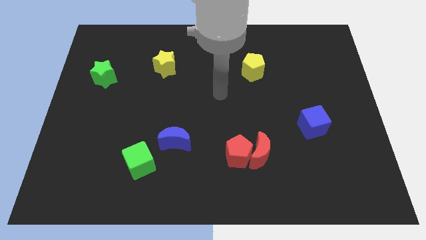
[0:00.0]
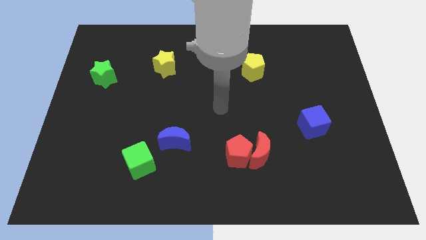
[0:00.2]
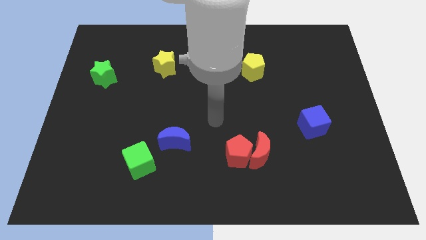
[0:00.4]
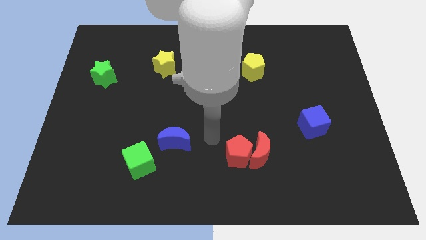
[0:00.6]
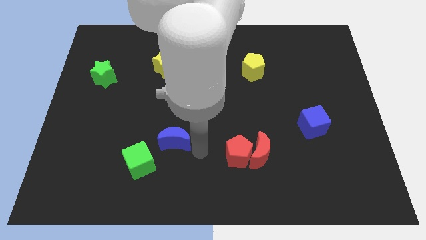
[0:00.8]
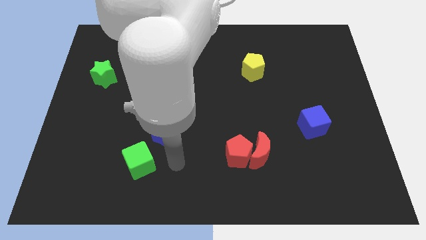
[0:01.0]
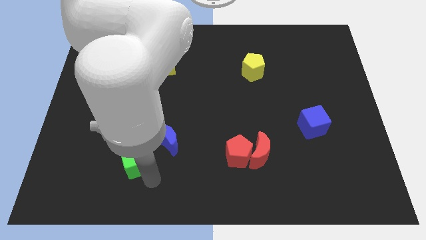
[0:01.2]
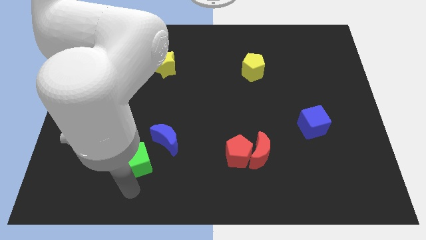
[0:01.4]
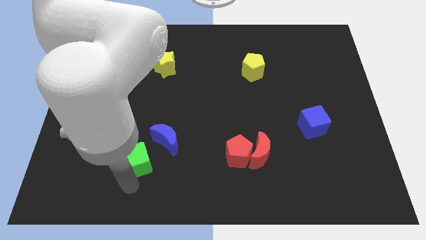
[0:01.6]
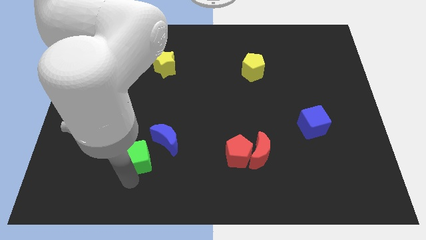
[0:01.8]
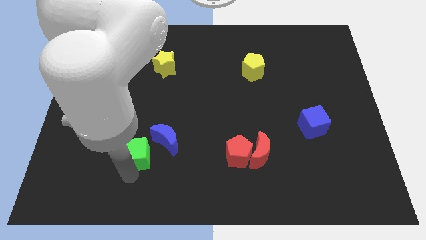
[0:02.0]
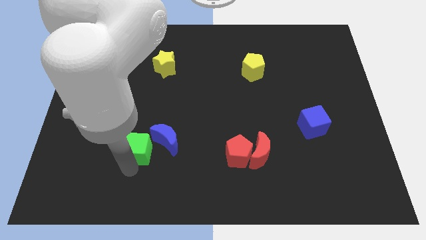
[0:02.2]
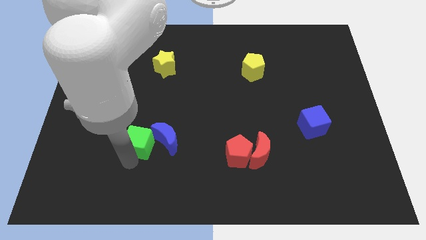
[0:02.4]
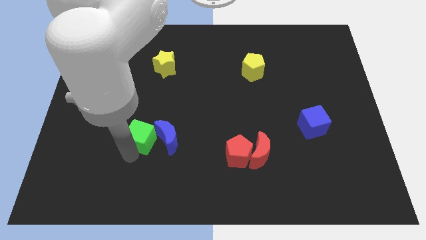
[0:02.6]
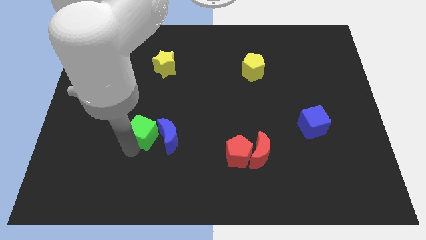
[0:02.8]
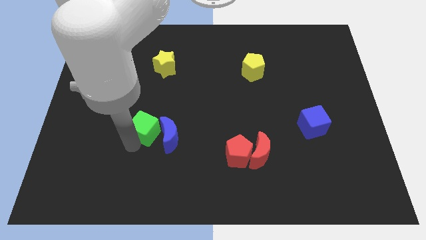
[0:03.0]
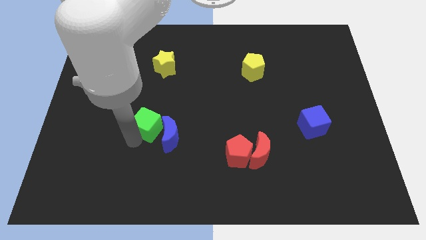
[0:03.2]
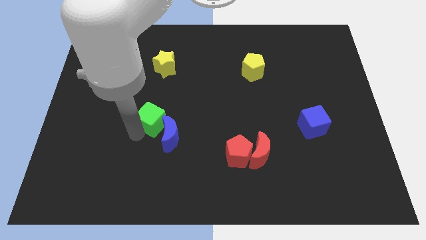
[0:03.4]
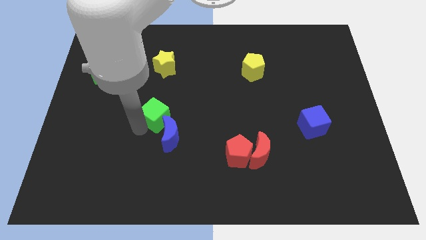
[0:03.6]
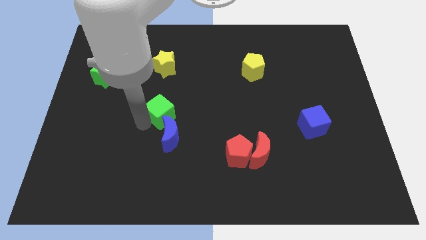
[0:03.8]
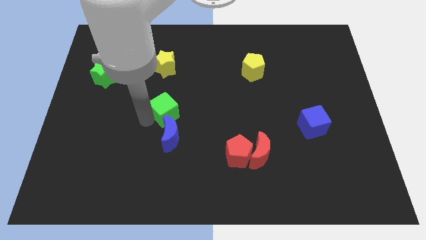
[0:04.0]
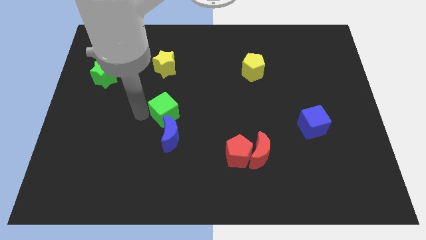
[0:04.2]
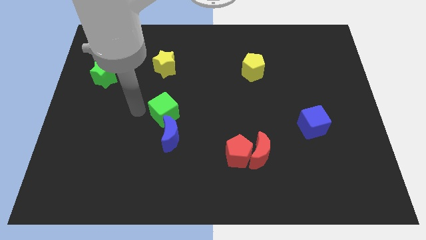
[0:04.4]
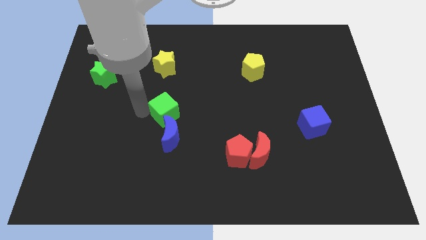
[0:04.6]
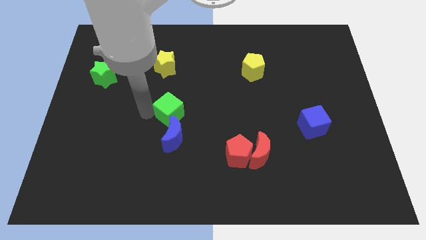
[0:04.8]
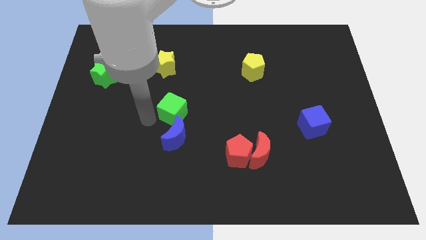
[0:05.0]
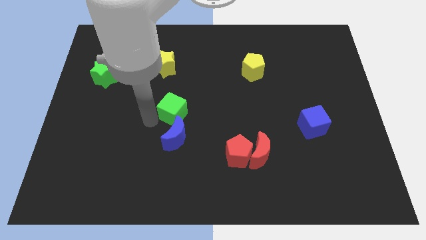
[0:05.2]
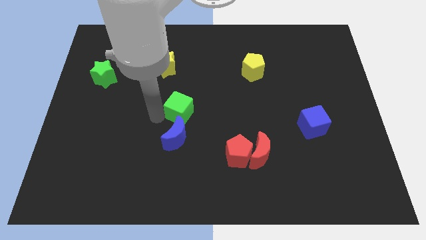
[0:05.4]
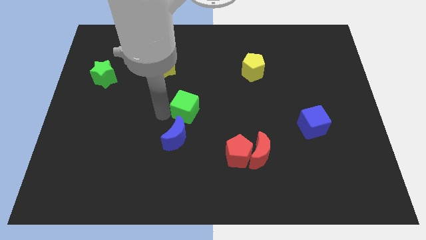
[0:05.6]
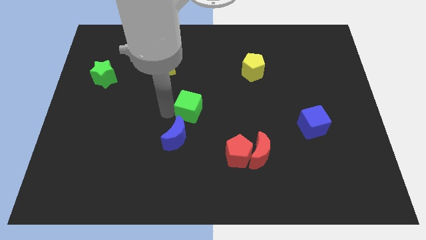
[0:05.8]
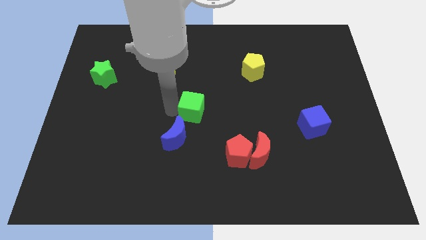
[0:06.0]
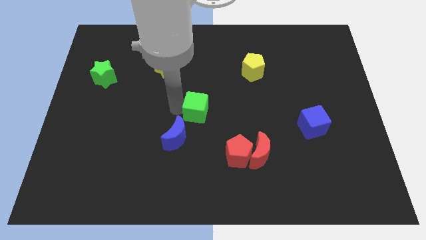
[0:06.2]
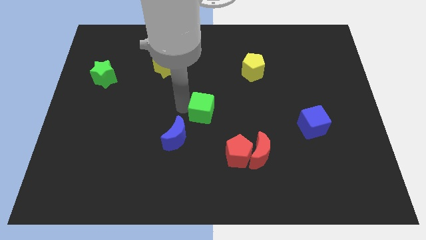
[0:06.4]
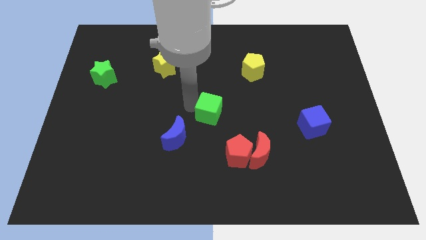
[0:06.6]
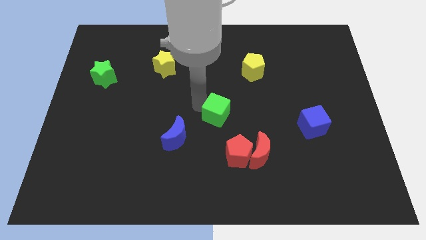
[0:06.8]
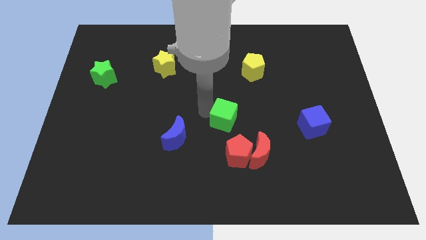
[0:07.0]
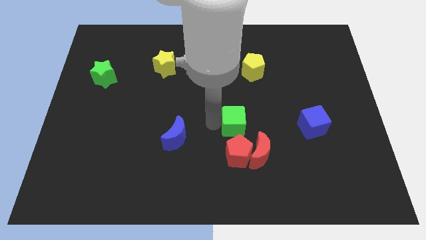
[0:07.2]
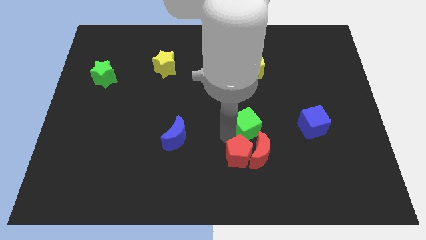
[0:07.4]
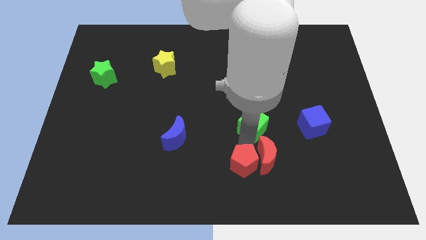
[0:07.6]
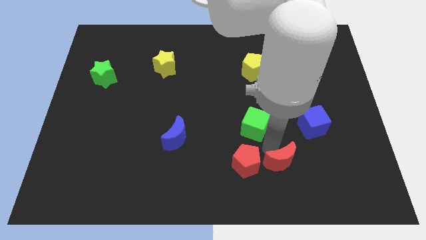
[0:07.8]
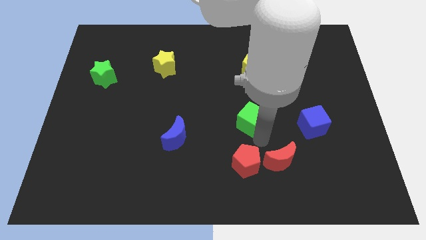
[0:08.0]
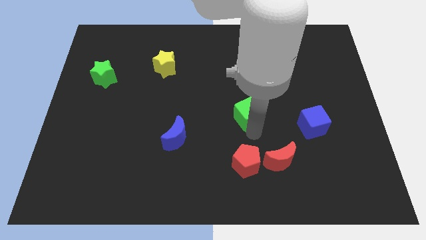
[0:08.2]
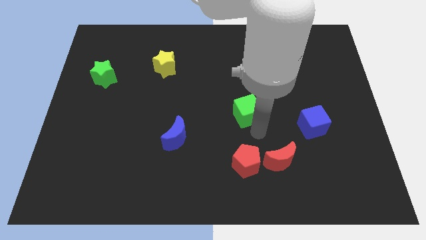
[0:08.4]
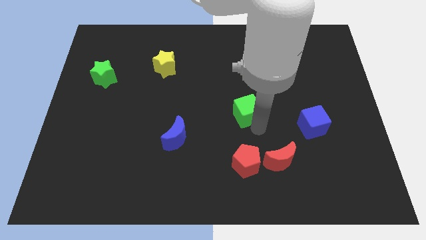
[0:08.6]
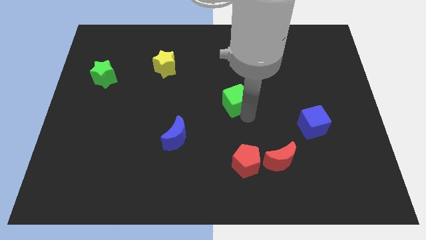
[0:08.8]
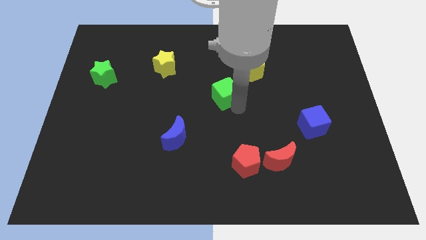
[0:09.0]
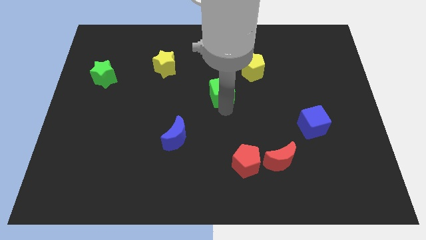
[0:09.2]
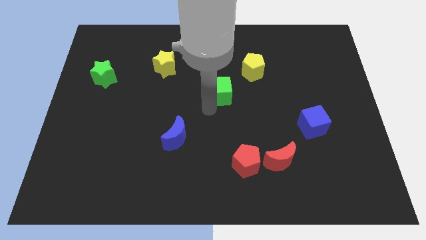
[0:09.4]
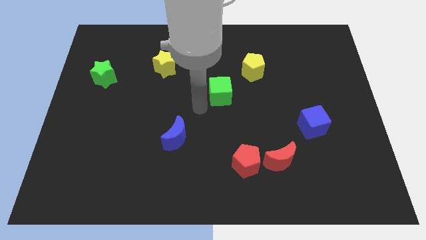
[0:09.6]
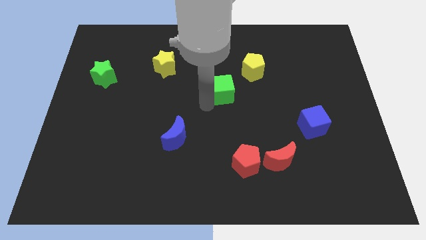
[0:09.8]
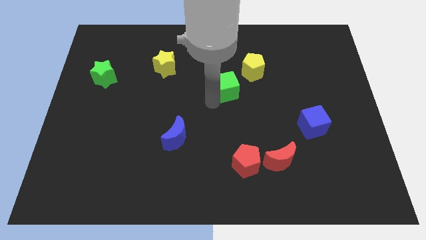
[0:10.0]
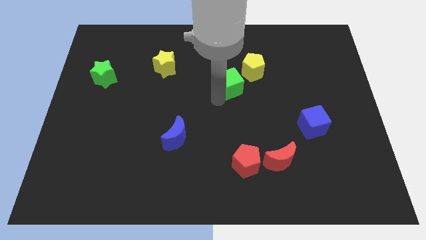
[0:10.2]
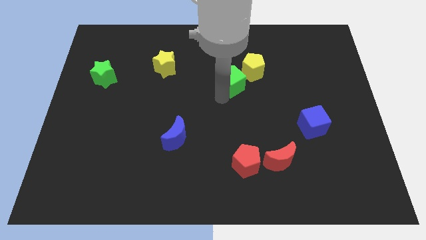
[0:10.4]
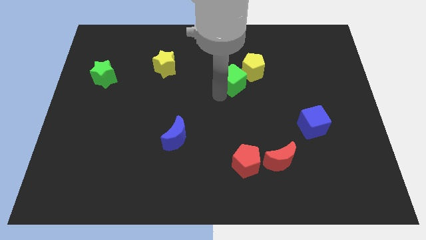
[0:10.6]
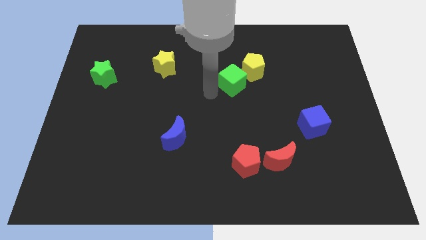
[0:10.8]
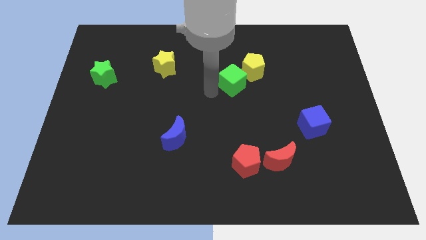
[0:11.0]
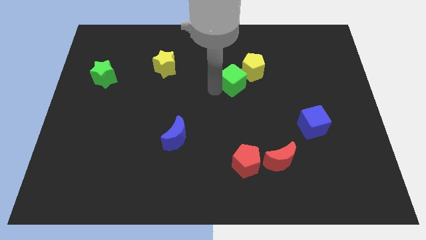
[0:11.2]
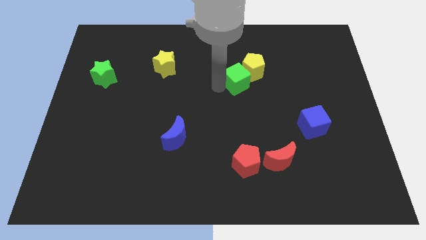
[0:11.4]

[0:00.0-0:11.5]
slide the green cube towards the yellow pentagon
